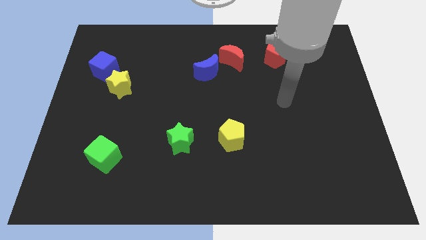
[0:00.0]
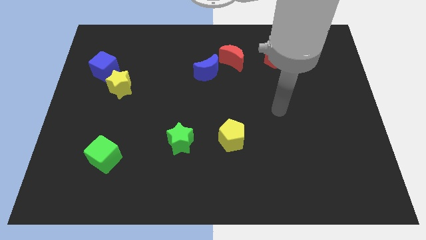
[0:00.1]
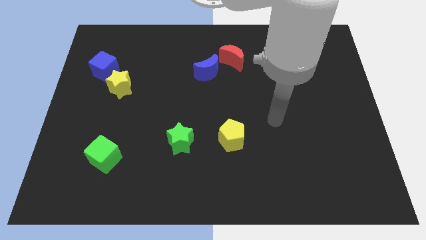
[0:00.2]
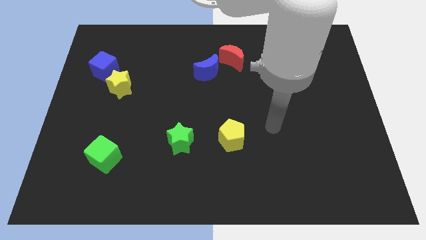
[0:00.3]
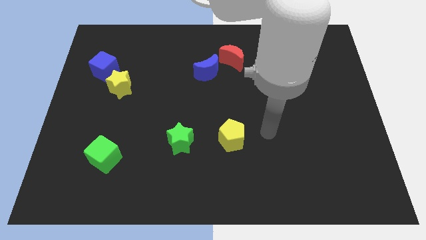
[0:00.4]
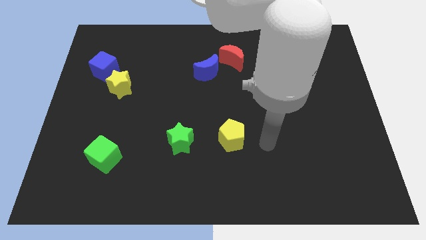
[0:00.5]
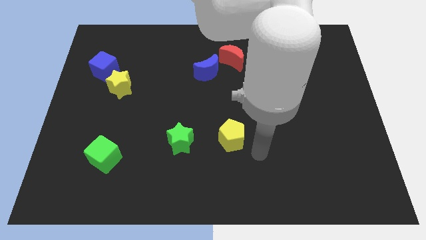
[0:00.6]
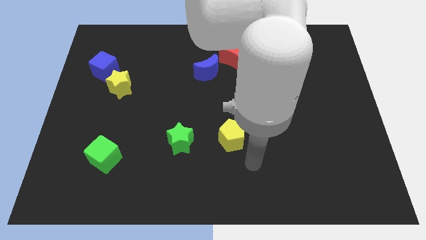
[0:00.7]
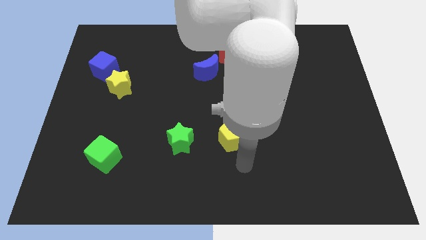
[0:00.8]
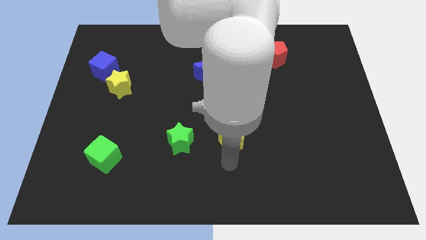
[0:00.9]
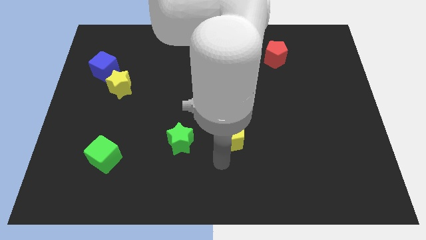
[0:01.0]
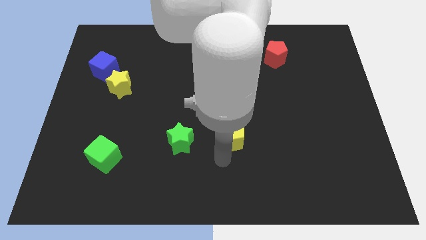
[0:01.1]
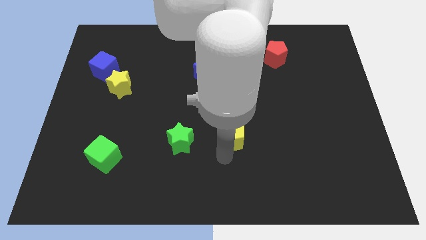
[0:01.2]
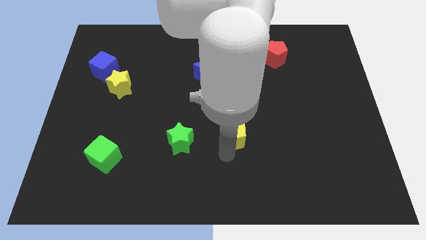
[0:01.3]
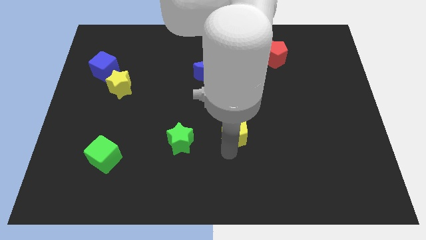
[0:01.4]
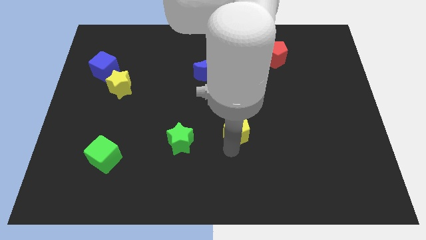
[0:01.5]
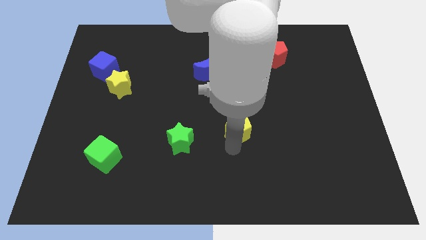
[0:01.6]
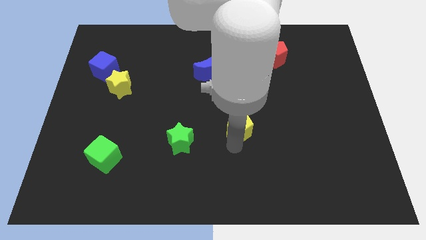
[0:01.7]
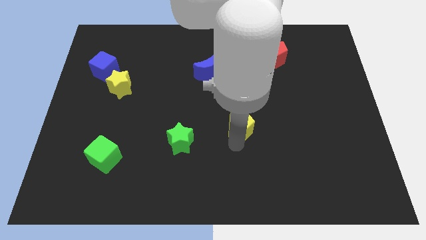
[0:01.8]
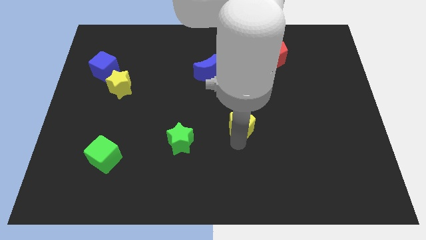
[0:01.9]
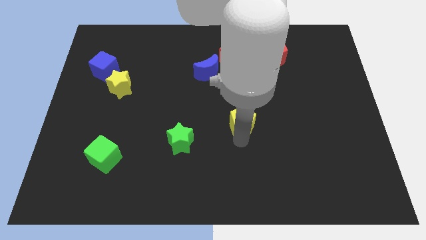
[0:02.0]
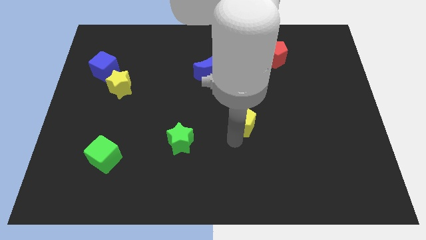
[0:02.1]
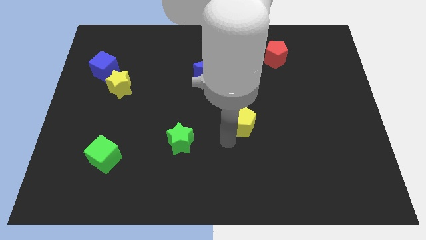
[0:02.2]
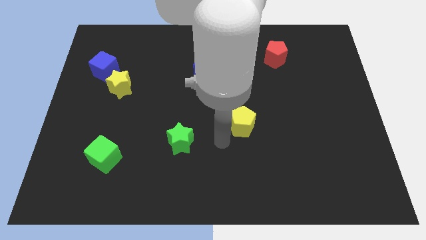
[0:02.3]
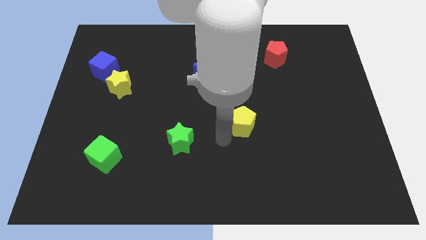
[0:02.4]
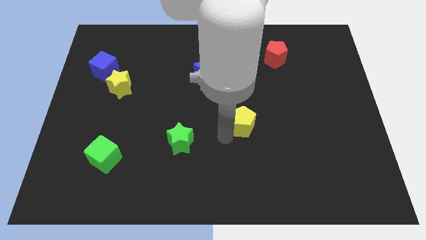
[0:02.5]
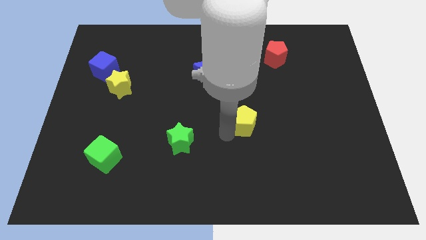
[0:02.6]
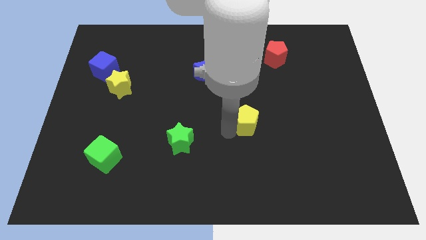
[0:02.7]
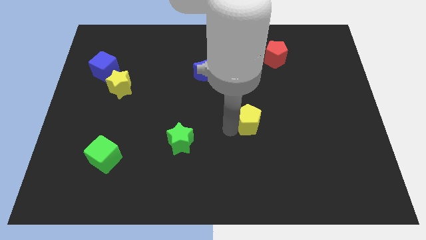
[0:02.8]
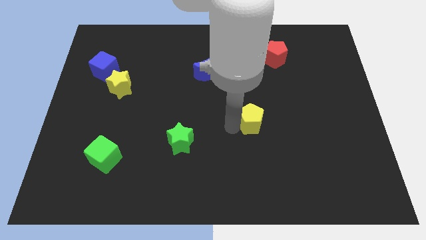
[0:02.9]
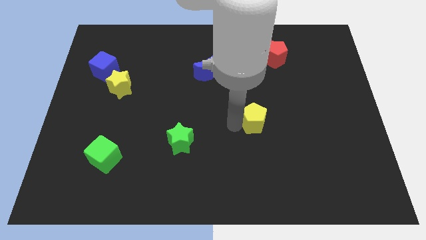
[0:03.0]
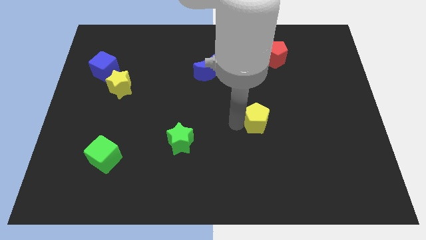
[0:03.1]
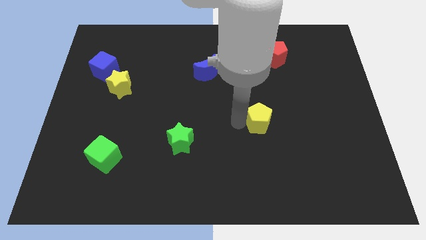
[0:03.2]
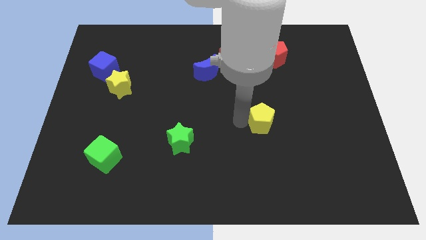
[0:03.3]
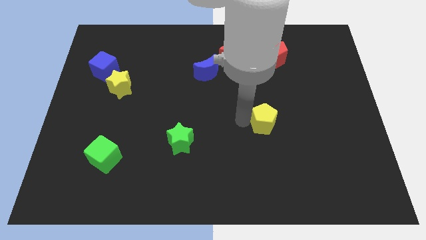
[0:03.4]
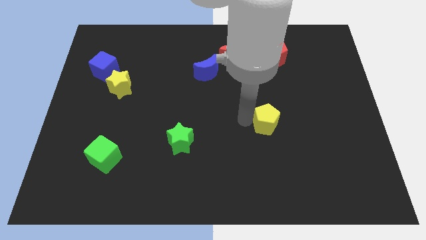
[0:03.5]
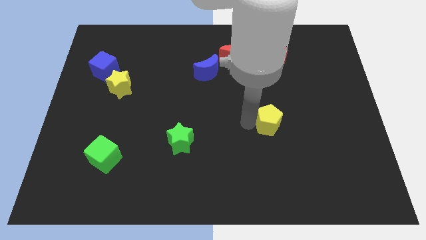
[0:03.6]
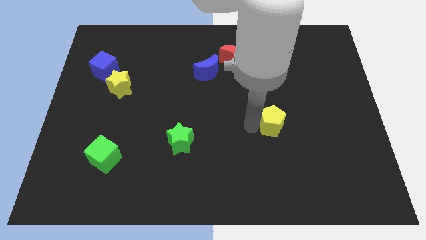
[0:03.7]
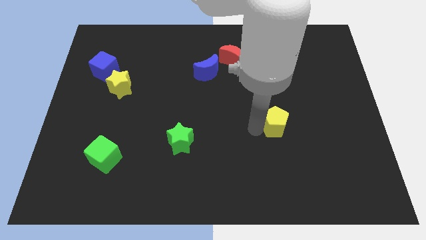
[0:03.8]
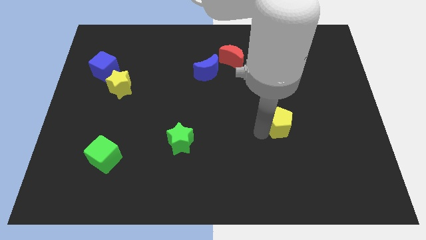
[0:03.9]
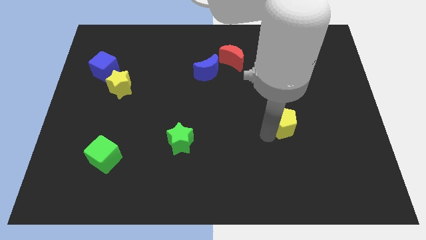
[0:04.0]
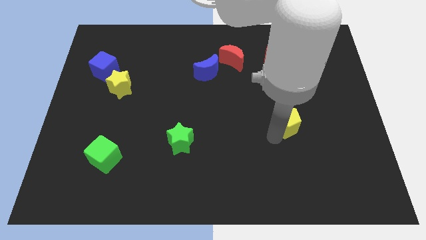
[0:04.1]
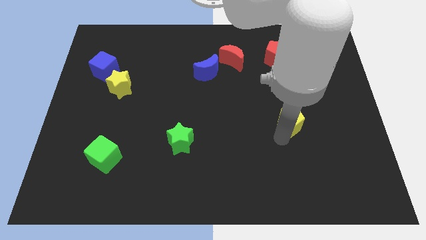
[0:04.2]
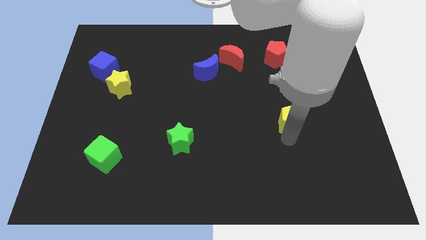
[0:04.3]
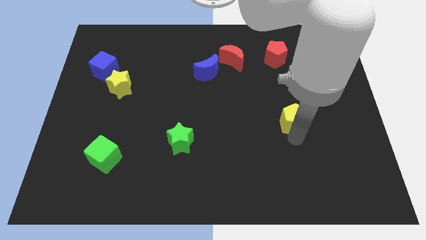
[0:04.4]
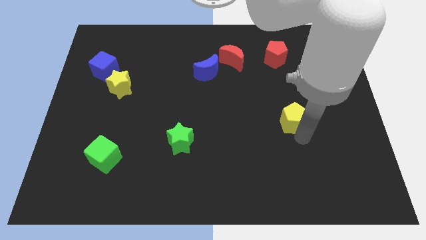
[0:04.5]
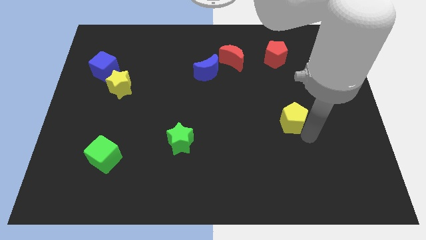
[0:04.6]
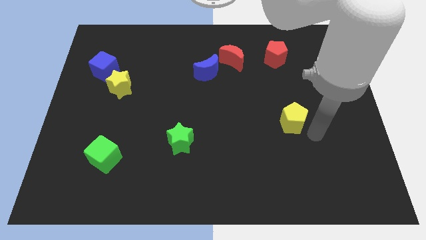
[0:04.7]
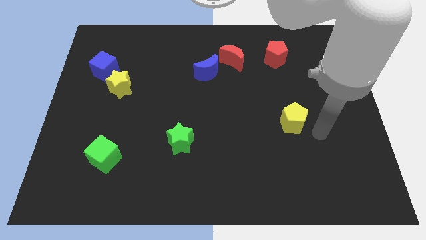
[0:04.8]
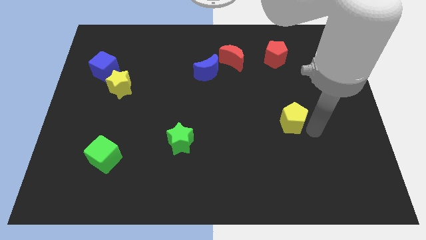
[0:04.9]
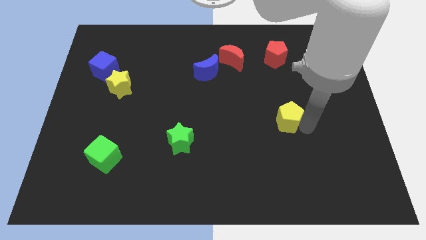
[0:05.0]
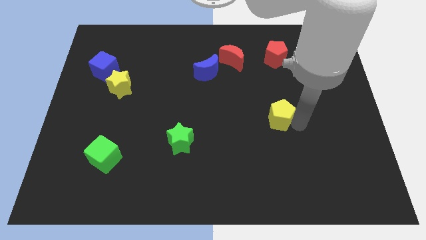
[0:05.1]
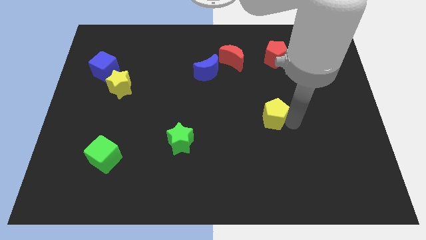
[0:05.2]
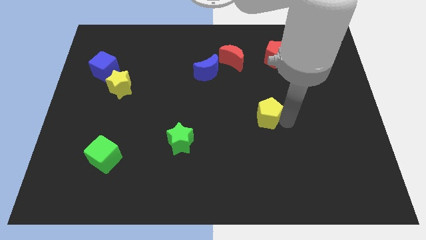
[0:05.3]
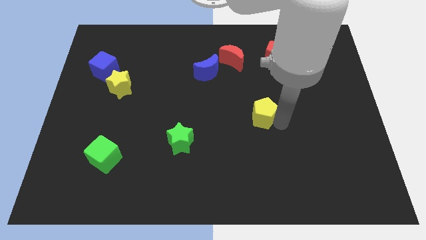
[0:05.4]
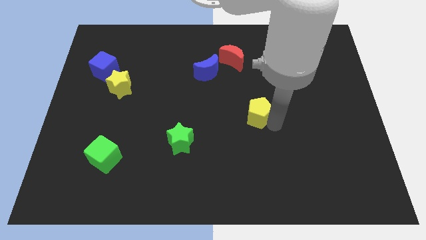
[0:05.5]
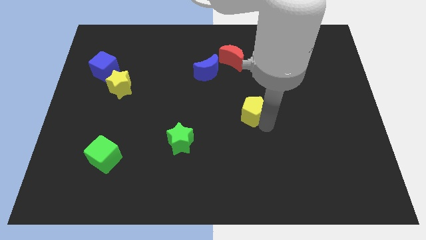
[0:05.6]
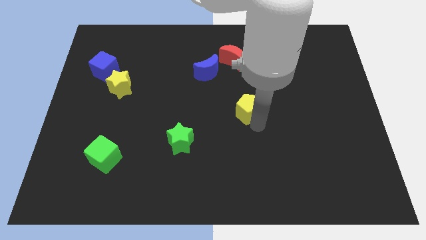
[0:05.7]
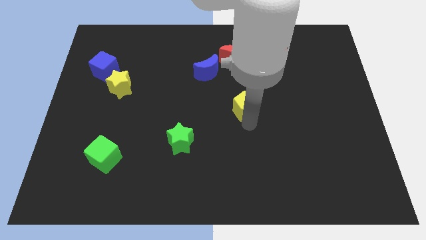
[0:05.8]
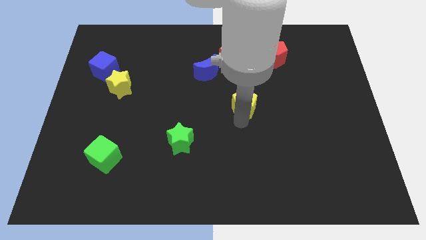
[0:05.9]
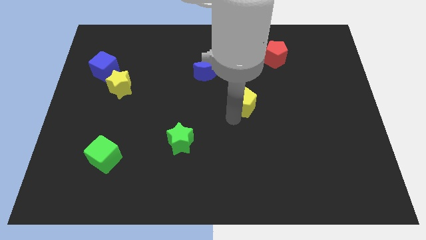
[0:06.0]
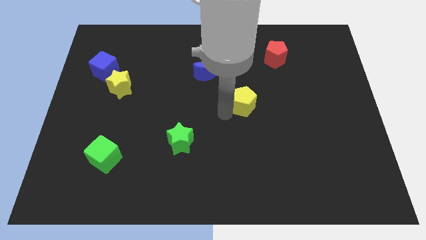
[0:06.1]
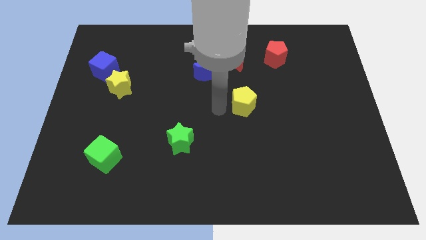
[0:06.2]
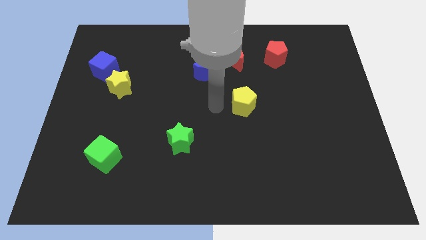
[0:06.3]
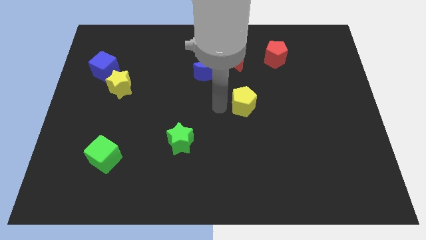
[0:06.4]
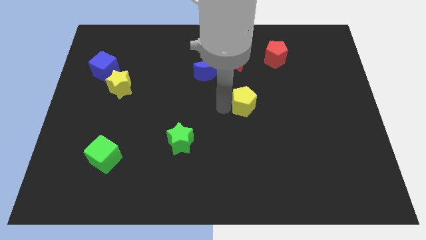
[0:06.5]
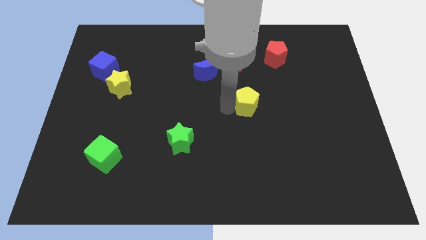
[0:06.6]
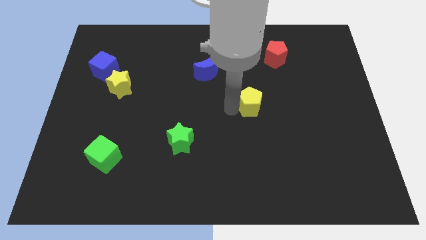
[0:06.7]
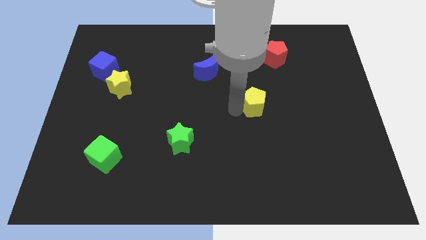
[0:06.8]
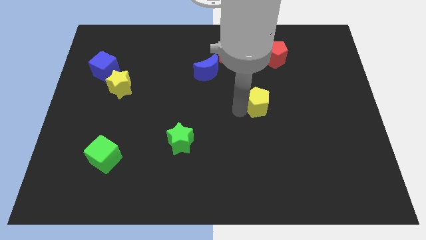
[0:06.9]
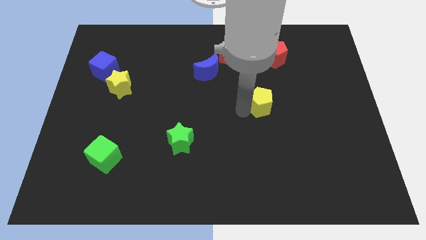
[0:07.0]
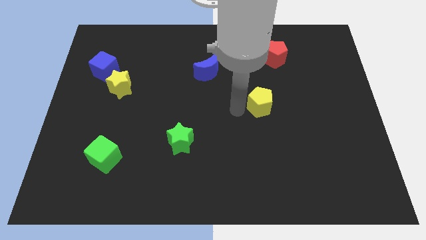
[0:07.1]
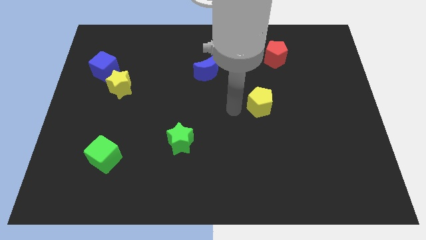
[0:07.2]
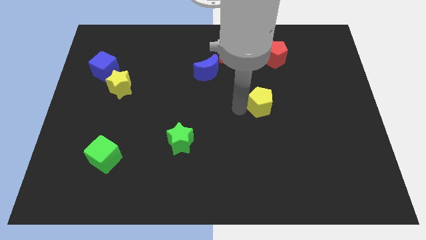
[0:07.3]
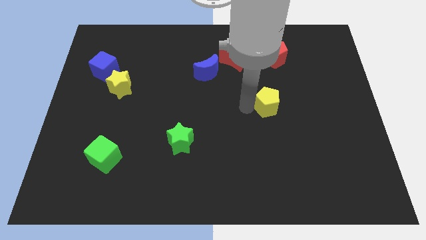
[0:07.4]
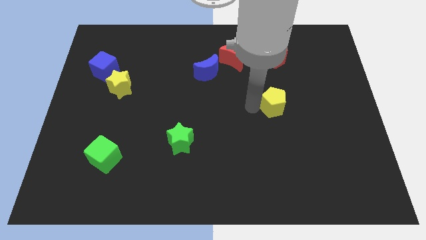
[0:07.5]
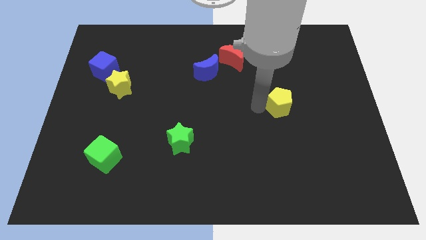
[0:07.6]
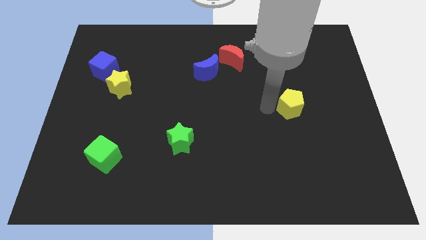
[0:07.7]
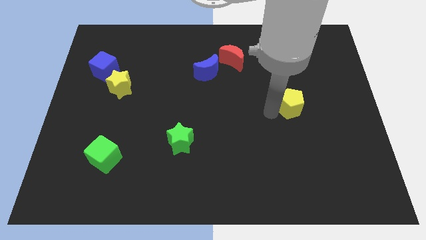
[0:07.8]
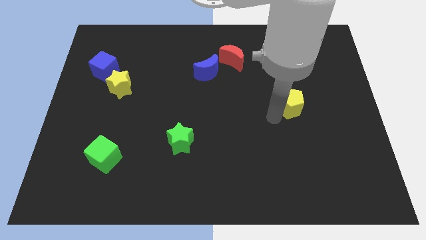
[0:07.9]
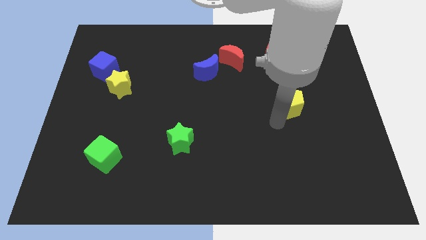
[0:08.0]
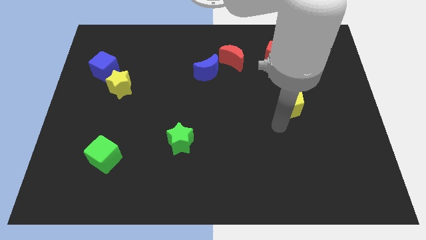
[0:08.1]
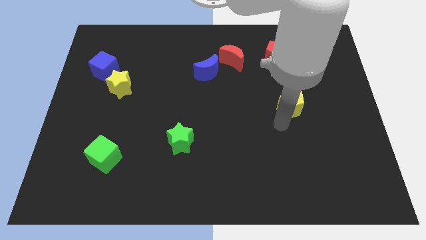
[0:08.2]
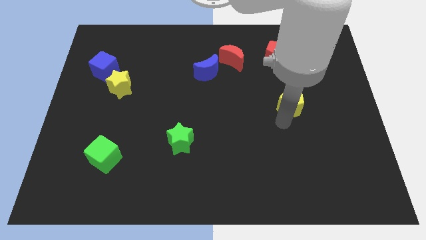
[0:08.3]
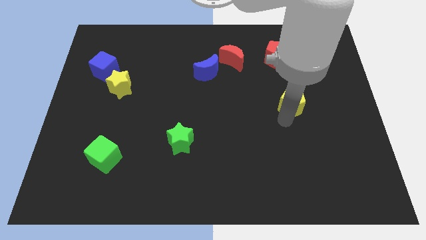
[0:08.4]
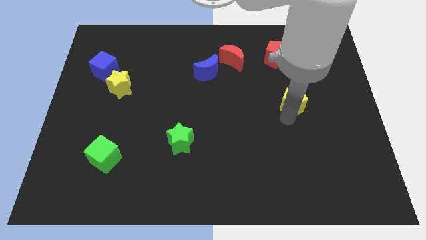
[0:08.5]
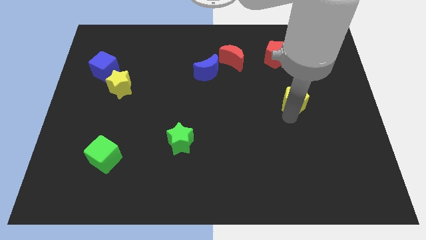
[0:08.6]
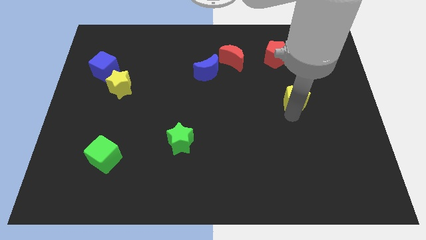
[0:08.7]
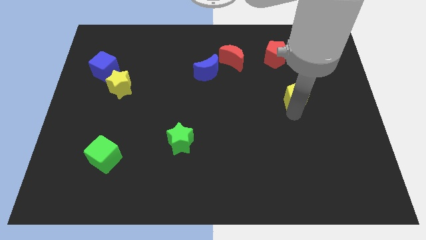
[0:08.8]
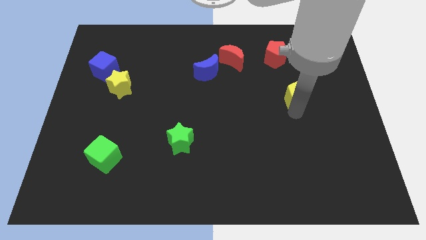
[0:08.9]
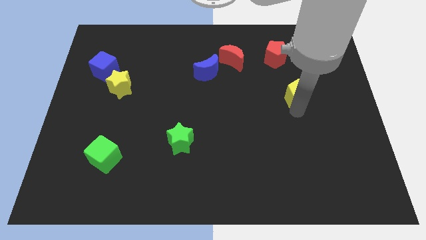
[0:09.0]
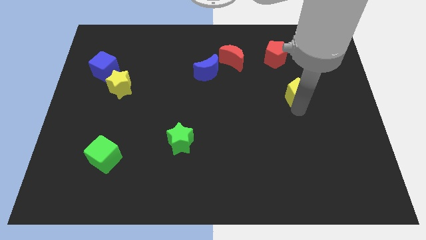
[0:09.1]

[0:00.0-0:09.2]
push the yellow pentagon up and to the right diagonally
